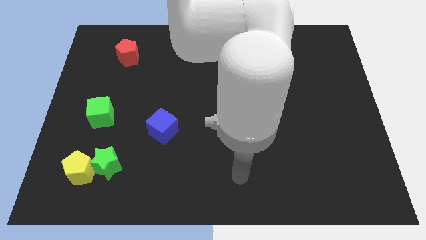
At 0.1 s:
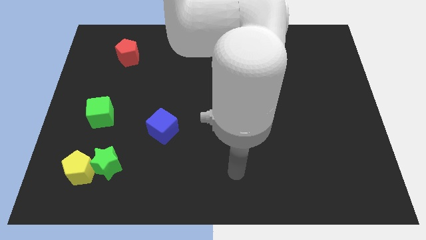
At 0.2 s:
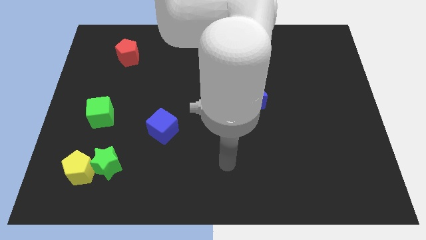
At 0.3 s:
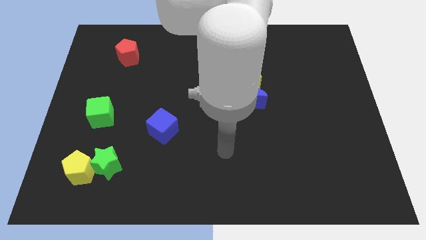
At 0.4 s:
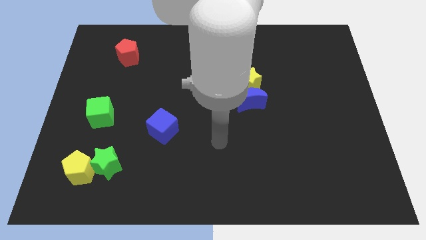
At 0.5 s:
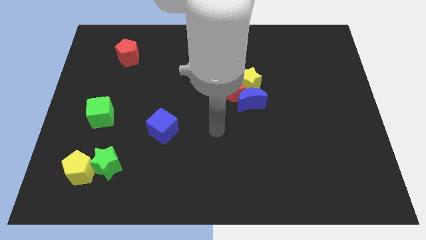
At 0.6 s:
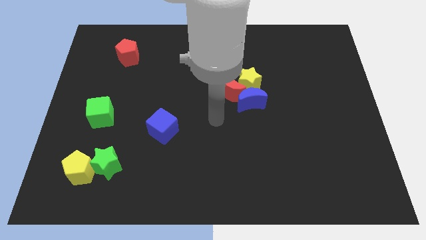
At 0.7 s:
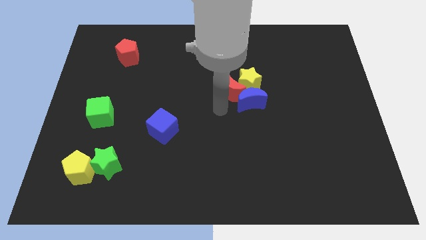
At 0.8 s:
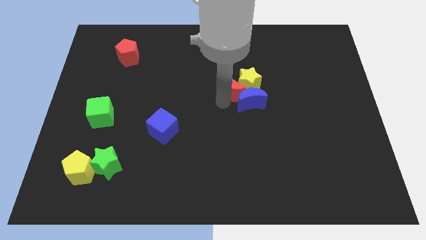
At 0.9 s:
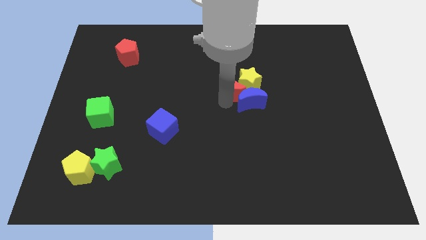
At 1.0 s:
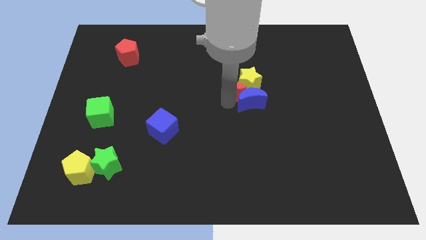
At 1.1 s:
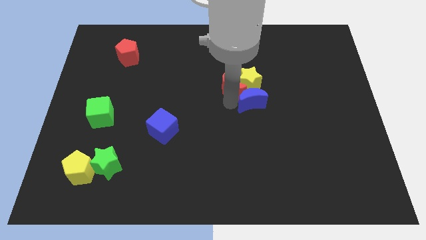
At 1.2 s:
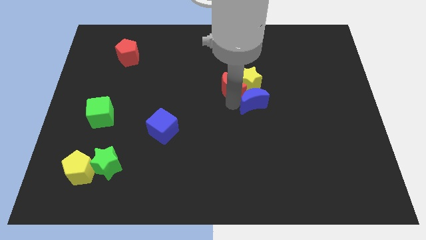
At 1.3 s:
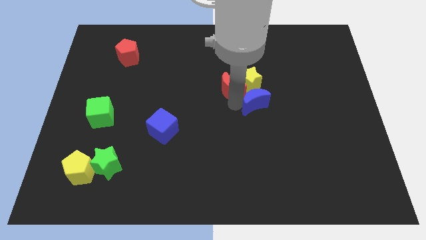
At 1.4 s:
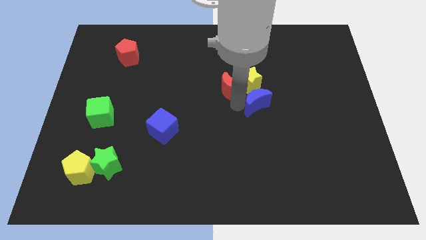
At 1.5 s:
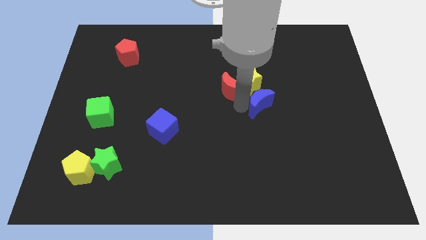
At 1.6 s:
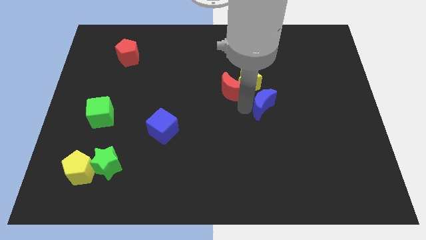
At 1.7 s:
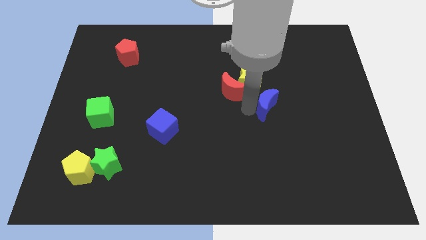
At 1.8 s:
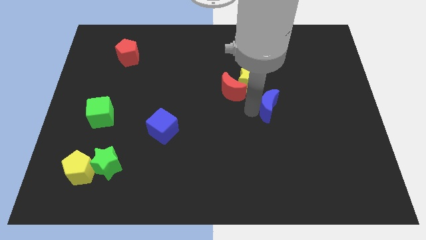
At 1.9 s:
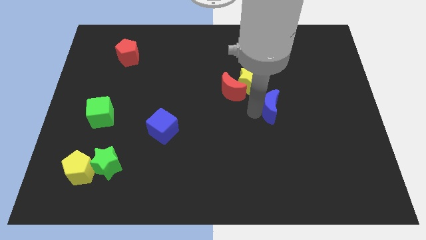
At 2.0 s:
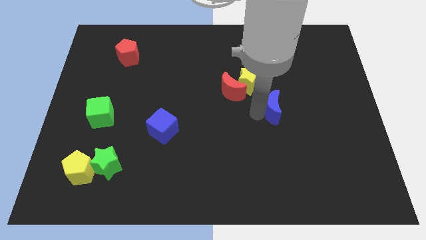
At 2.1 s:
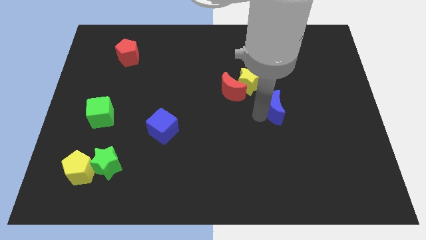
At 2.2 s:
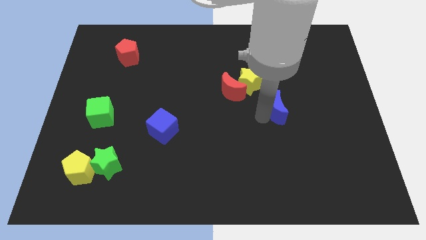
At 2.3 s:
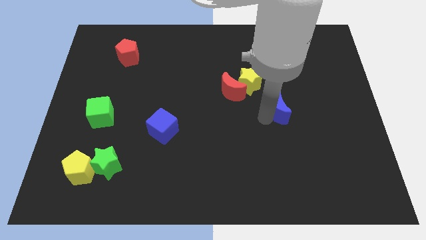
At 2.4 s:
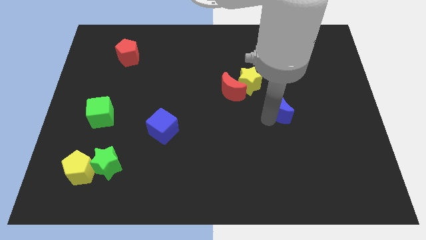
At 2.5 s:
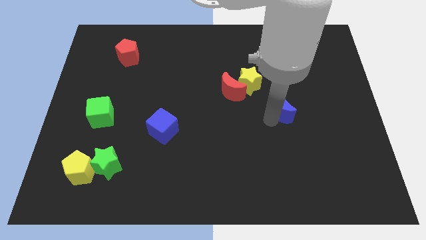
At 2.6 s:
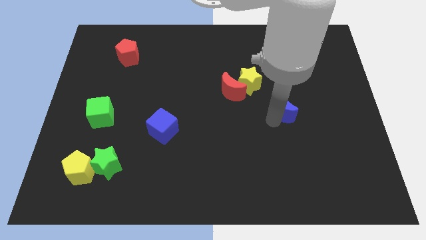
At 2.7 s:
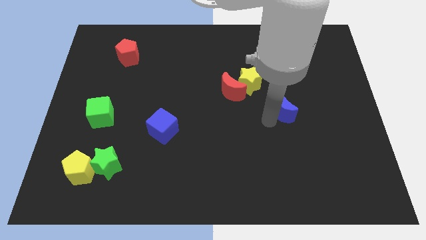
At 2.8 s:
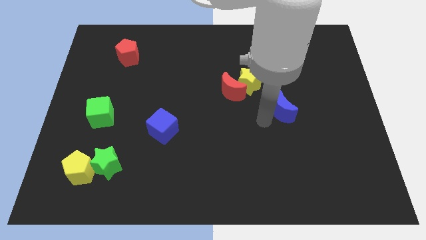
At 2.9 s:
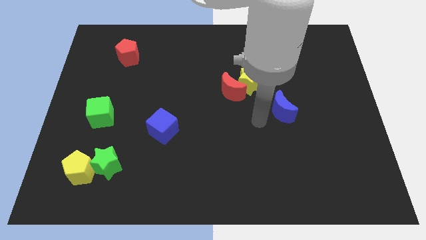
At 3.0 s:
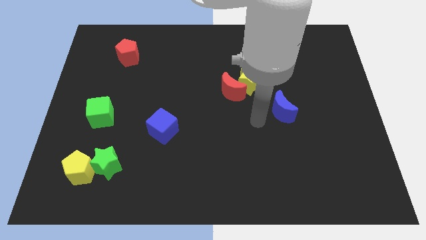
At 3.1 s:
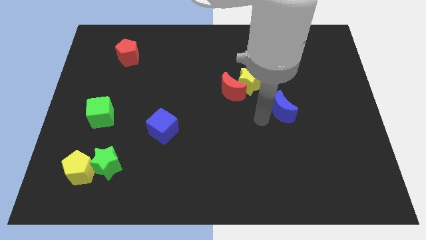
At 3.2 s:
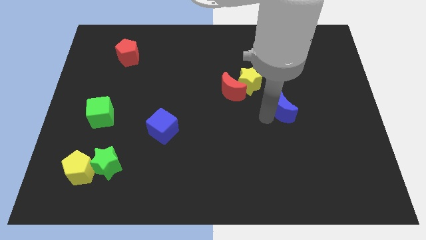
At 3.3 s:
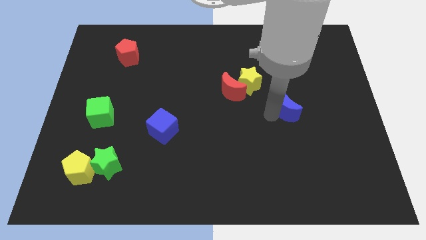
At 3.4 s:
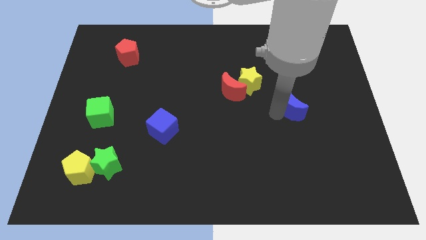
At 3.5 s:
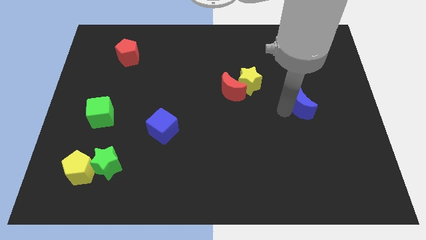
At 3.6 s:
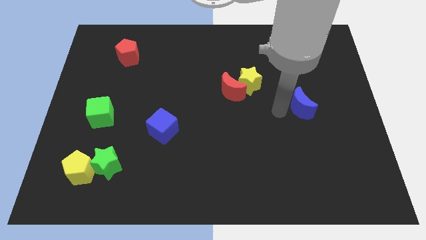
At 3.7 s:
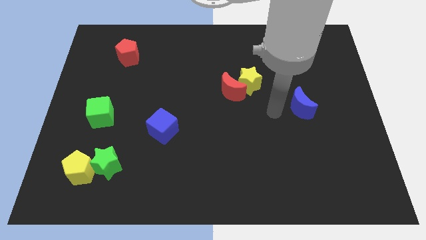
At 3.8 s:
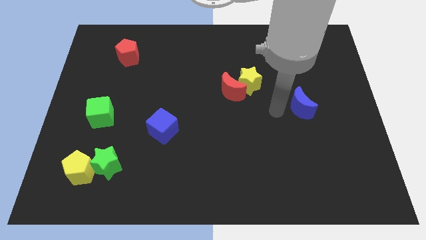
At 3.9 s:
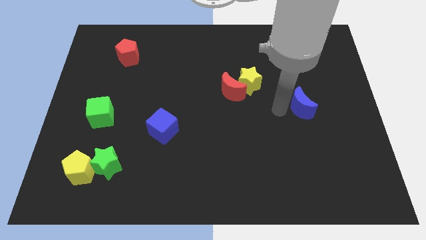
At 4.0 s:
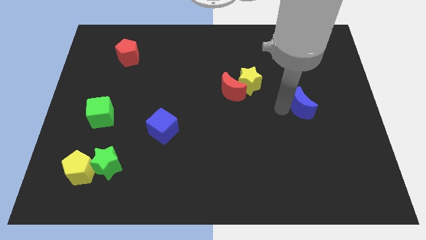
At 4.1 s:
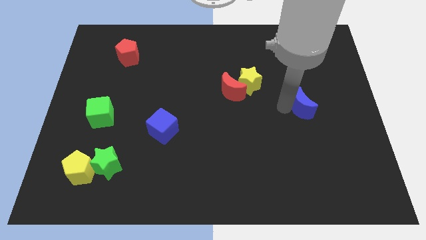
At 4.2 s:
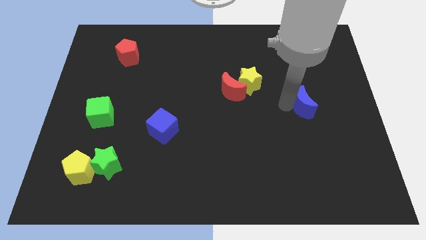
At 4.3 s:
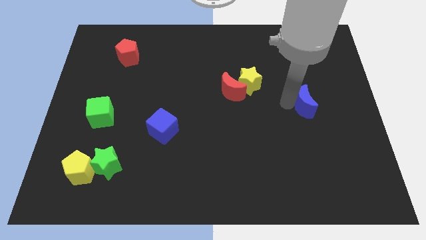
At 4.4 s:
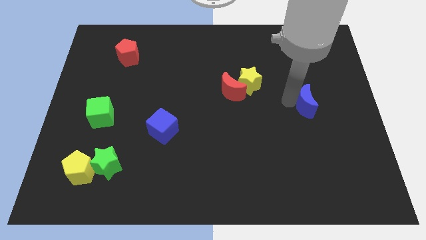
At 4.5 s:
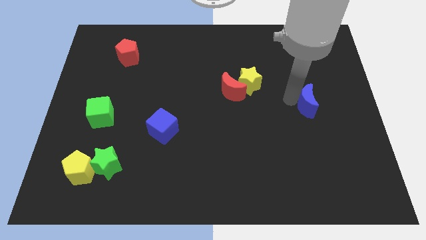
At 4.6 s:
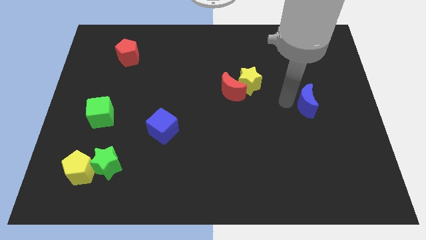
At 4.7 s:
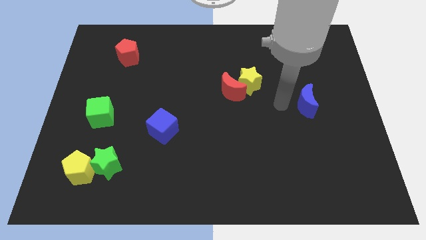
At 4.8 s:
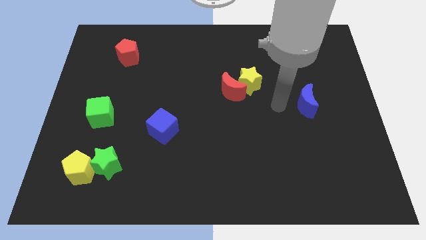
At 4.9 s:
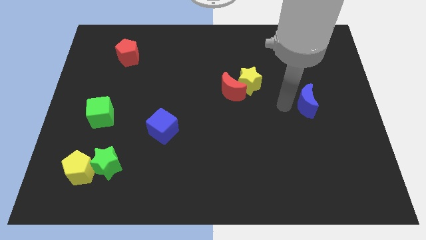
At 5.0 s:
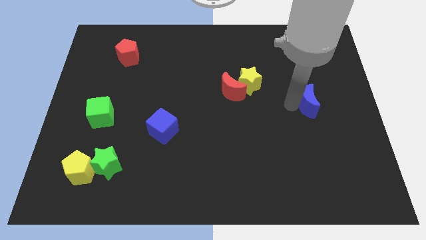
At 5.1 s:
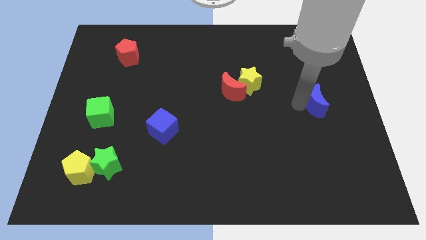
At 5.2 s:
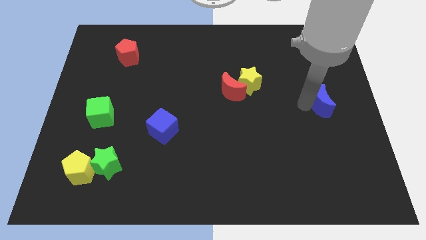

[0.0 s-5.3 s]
move the blue moon to the right side of the board
